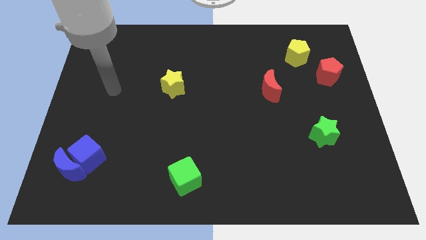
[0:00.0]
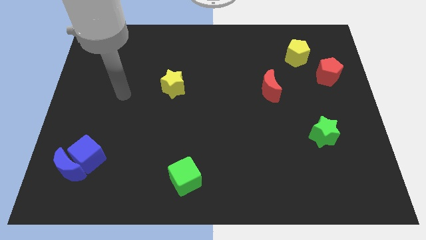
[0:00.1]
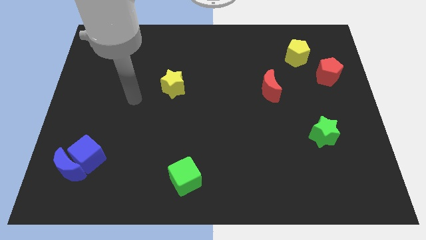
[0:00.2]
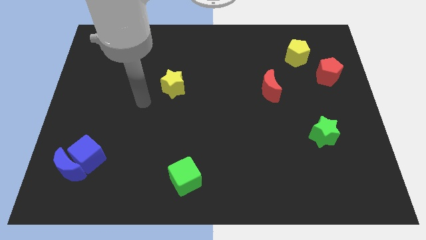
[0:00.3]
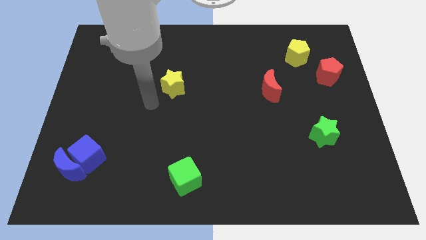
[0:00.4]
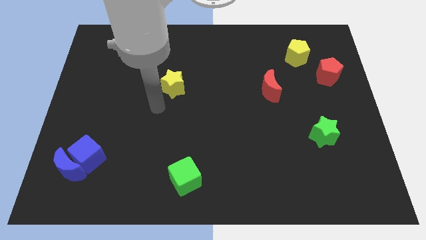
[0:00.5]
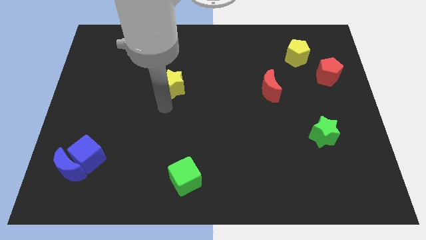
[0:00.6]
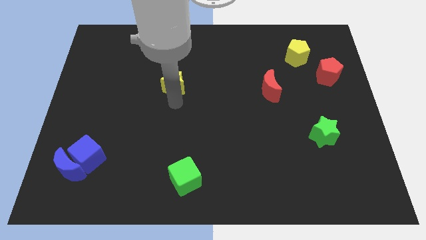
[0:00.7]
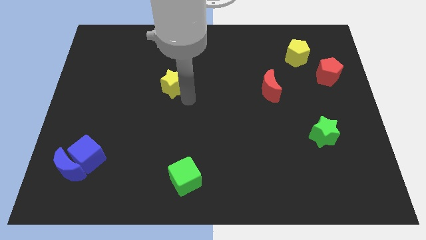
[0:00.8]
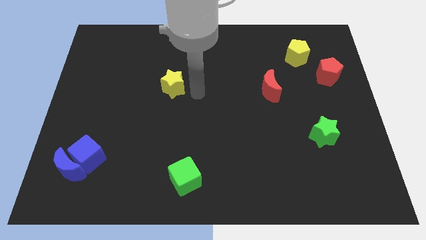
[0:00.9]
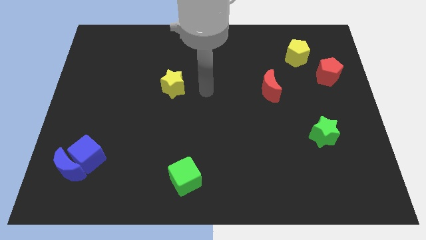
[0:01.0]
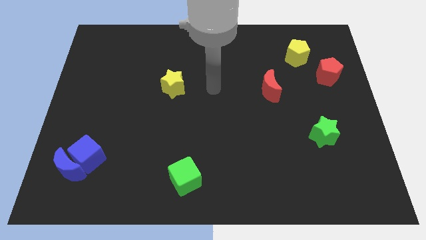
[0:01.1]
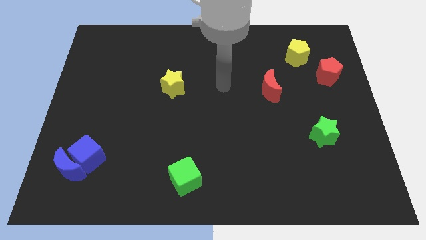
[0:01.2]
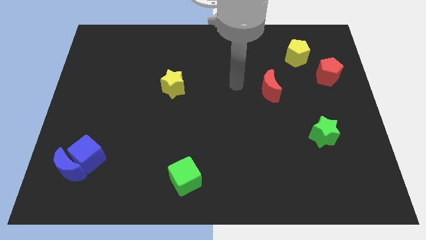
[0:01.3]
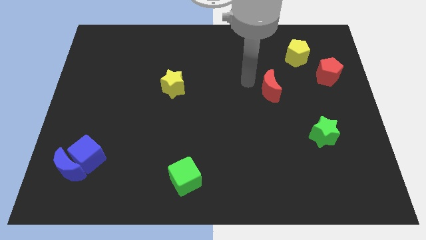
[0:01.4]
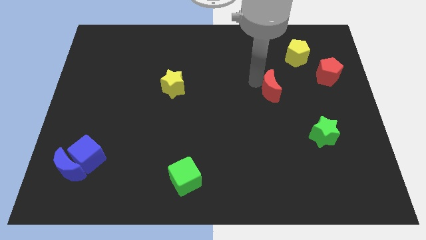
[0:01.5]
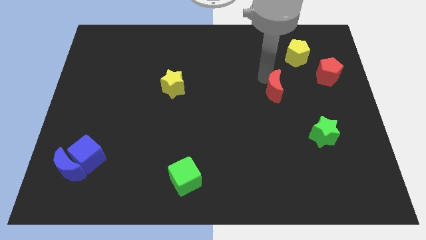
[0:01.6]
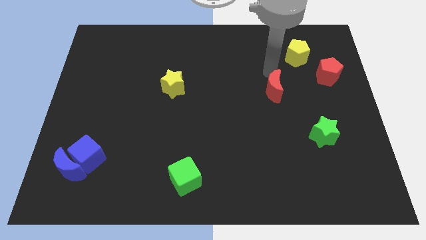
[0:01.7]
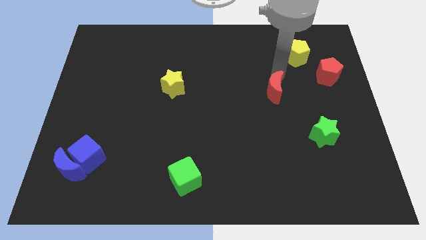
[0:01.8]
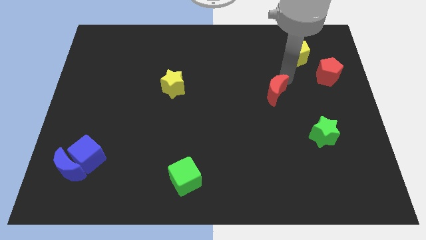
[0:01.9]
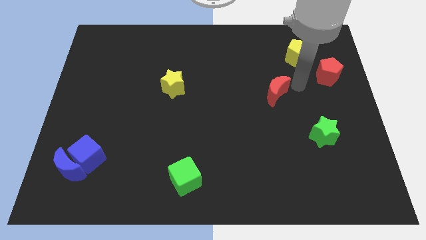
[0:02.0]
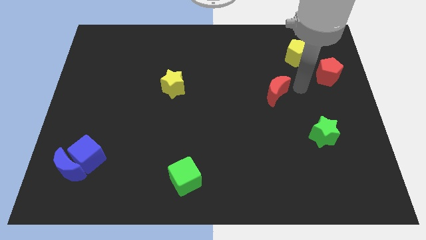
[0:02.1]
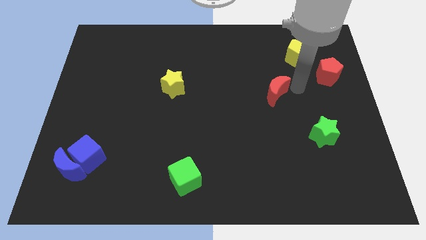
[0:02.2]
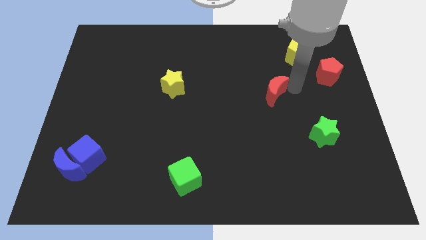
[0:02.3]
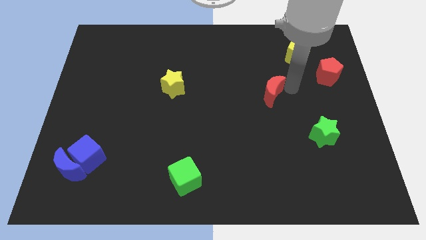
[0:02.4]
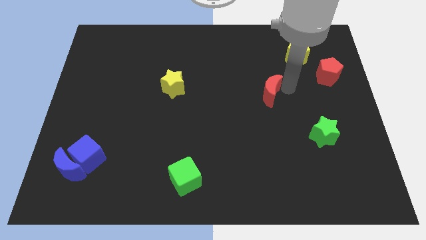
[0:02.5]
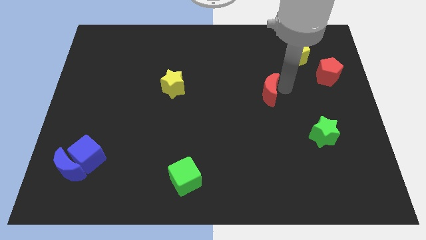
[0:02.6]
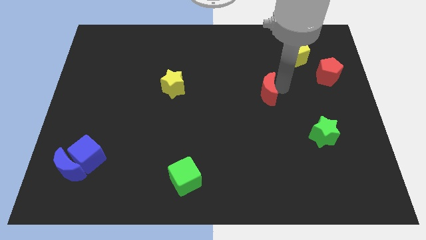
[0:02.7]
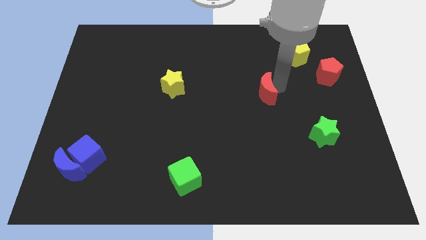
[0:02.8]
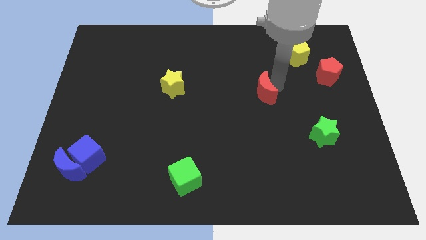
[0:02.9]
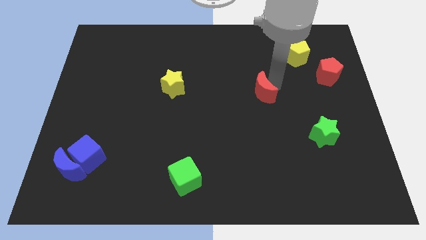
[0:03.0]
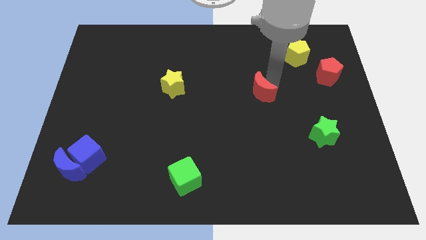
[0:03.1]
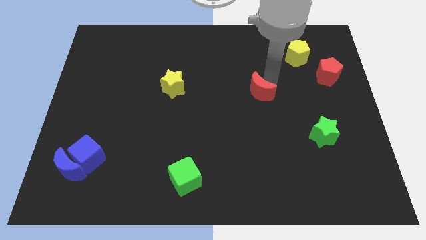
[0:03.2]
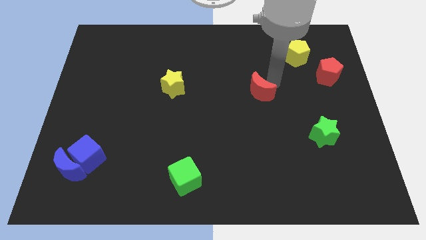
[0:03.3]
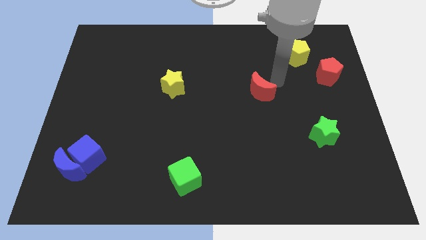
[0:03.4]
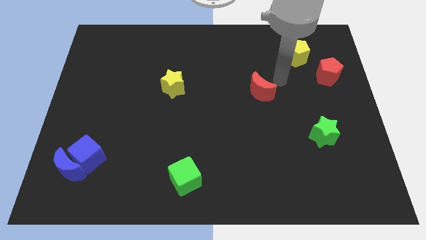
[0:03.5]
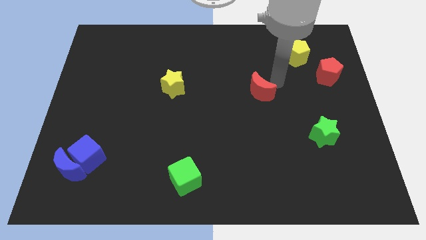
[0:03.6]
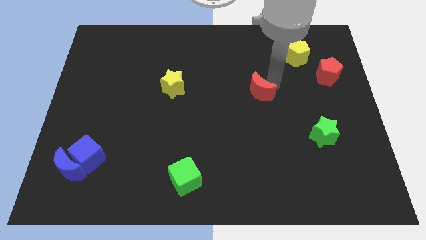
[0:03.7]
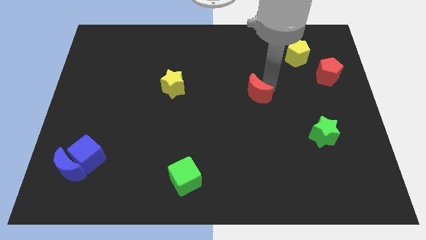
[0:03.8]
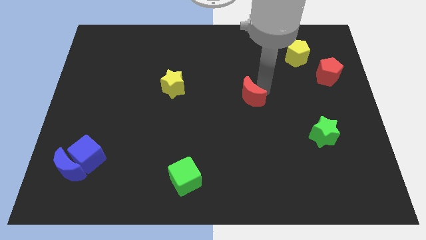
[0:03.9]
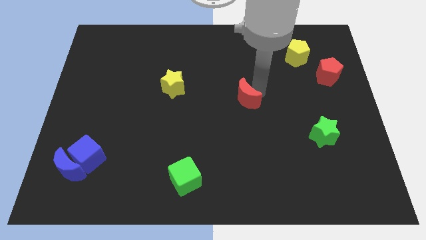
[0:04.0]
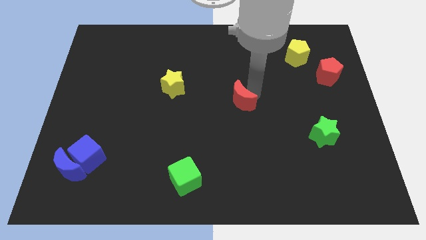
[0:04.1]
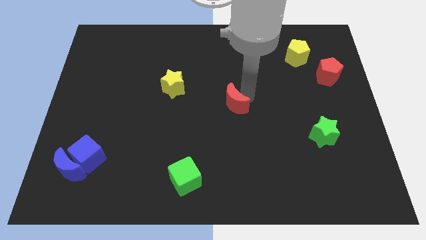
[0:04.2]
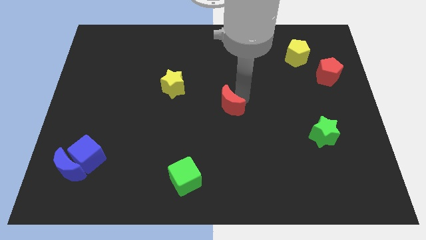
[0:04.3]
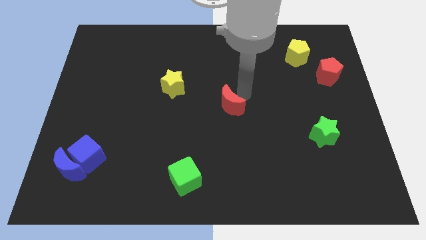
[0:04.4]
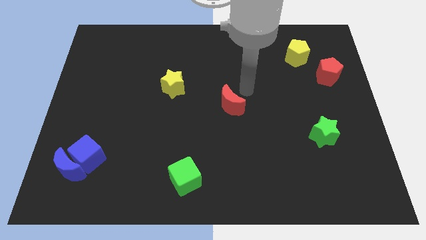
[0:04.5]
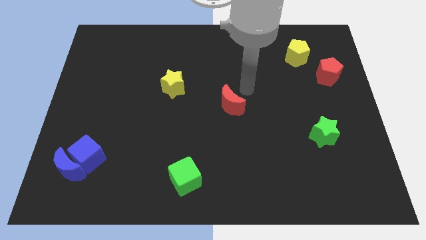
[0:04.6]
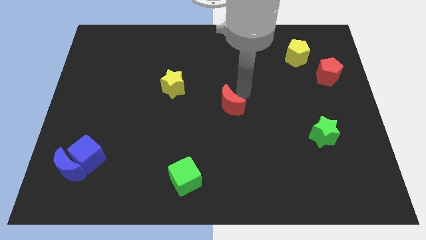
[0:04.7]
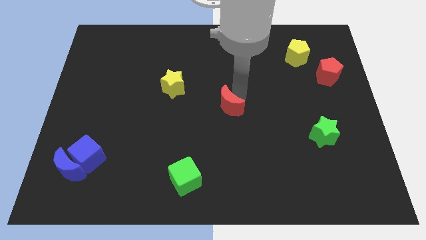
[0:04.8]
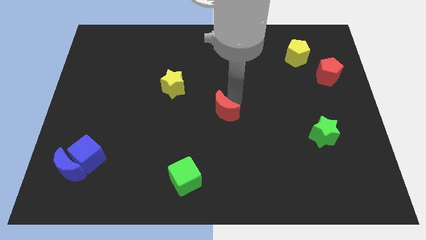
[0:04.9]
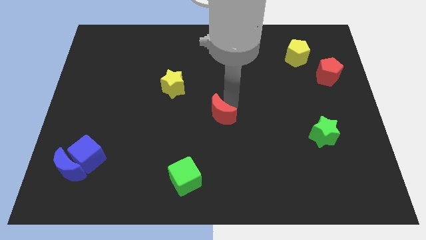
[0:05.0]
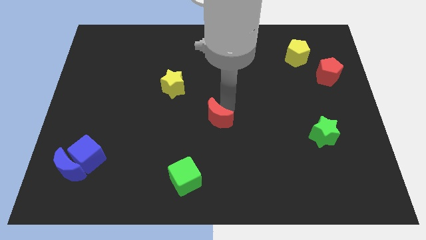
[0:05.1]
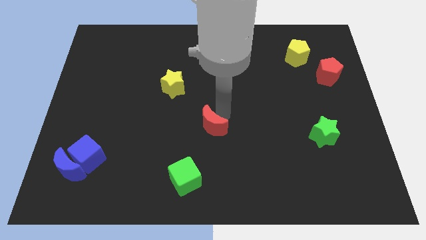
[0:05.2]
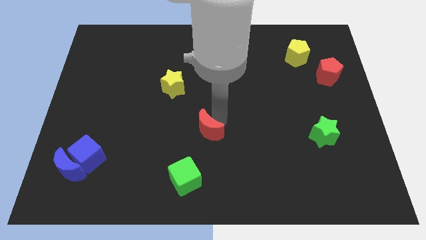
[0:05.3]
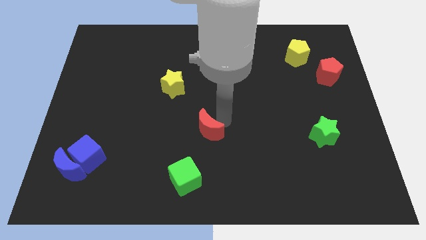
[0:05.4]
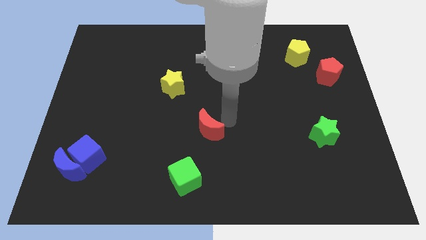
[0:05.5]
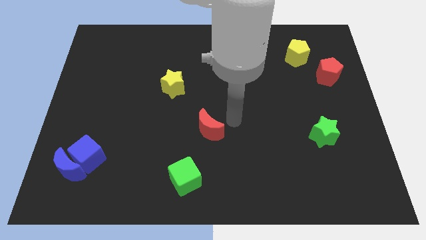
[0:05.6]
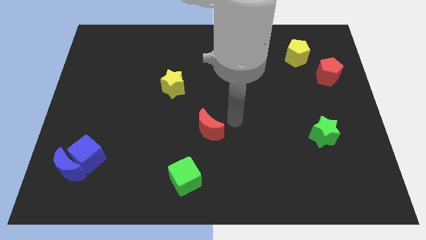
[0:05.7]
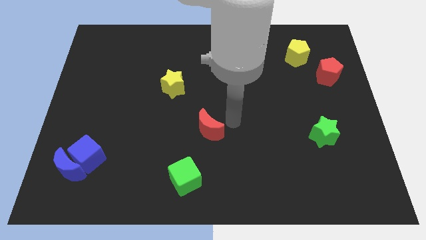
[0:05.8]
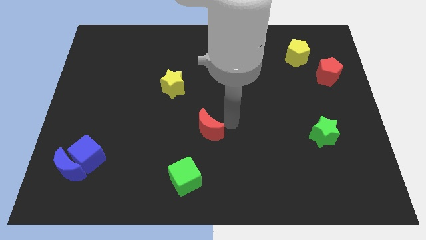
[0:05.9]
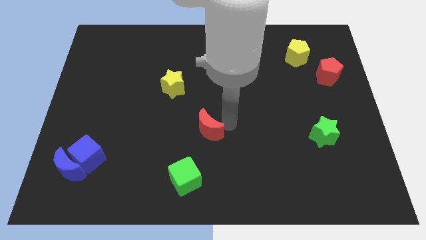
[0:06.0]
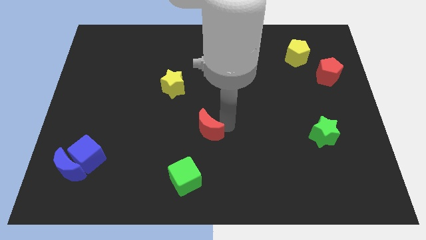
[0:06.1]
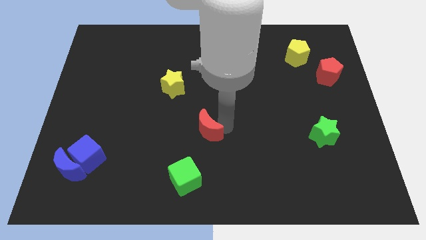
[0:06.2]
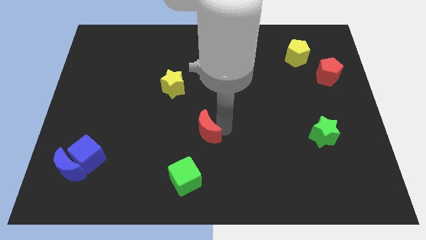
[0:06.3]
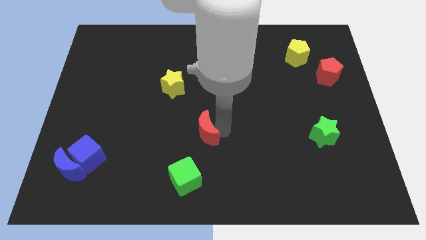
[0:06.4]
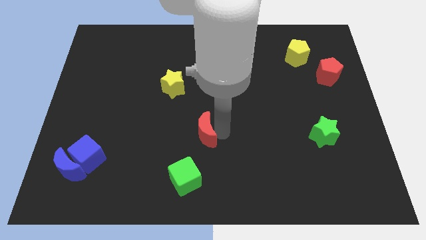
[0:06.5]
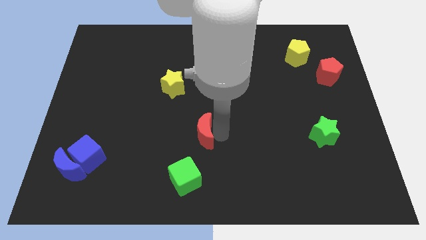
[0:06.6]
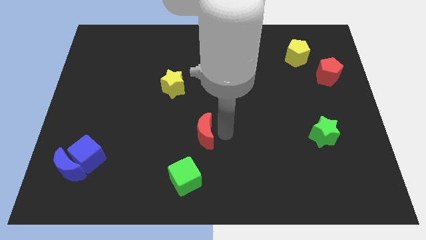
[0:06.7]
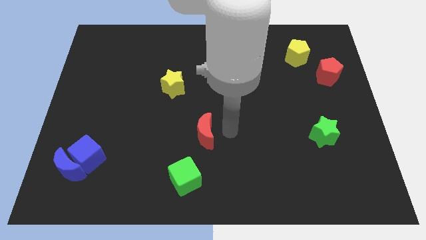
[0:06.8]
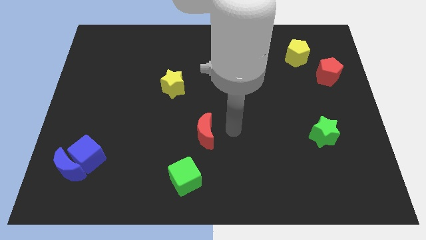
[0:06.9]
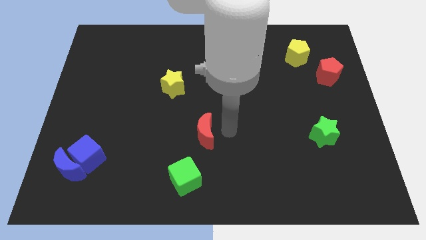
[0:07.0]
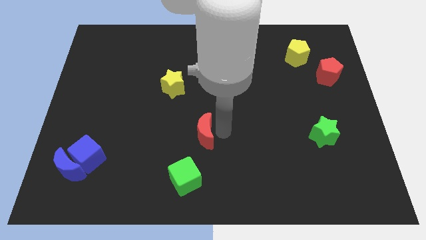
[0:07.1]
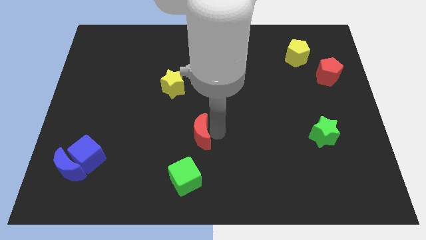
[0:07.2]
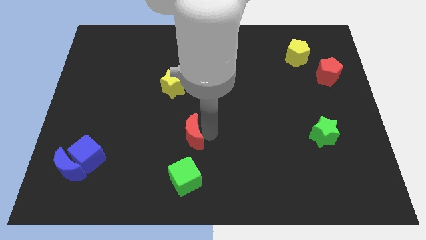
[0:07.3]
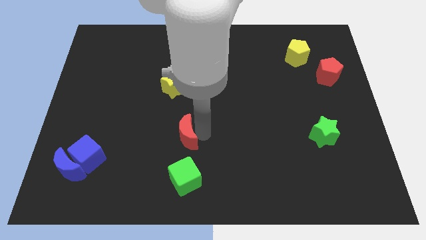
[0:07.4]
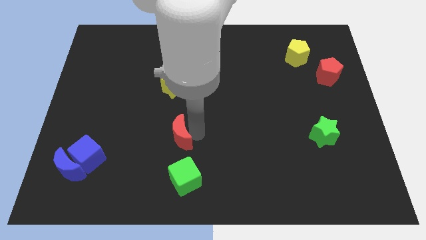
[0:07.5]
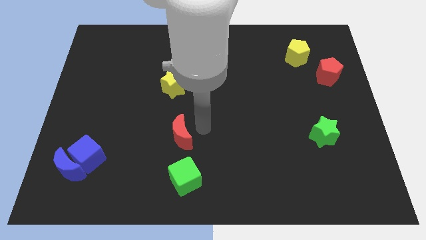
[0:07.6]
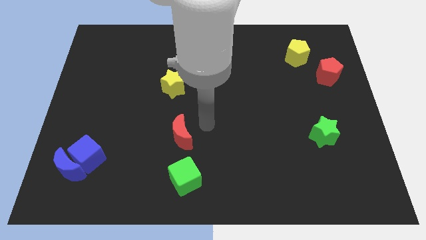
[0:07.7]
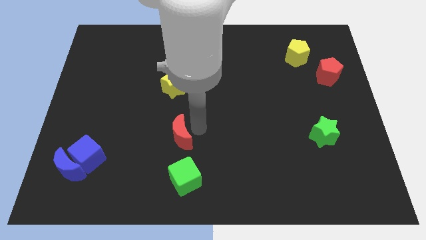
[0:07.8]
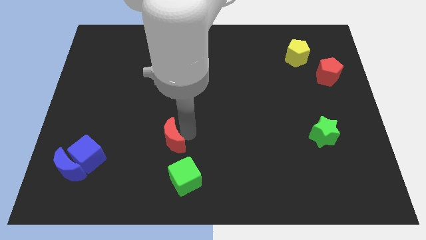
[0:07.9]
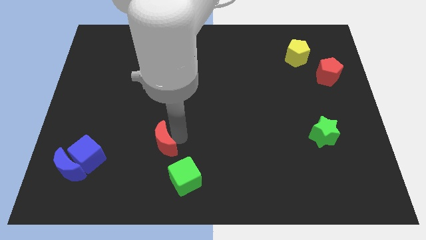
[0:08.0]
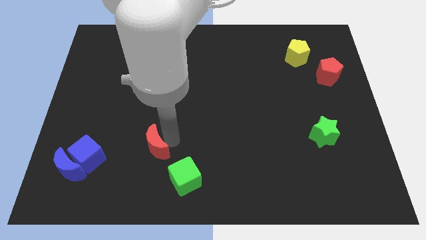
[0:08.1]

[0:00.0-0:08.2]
push the red moon just right of the blue cube
